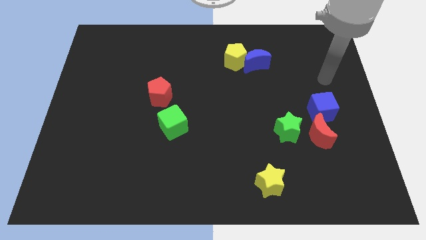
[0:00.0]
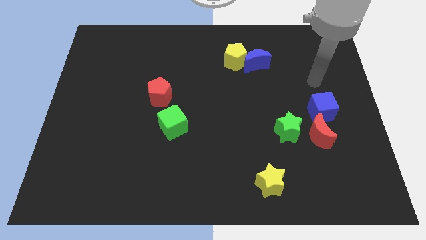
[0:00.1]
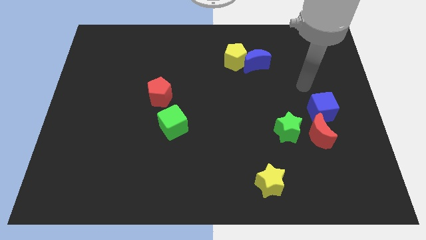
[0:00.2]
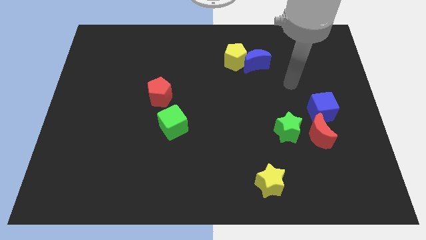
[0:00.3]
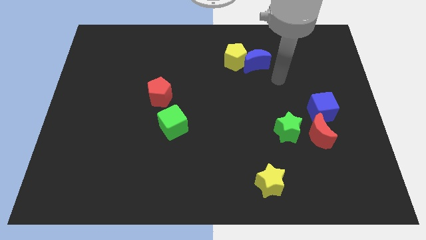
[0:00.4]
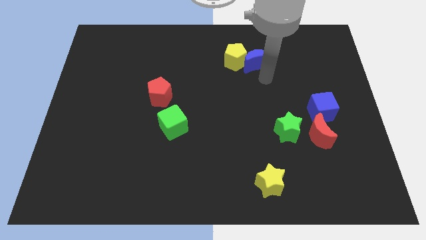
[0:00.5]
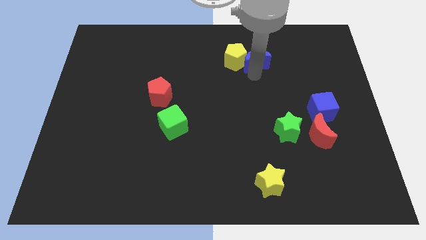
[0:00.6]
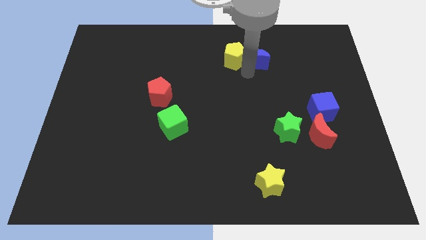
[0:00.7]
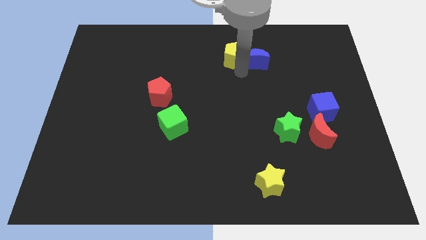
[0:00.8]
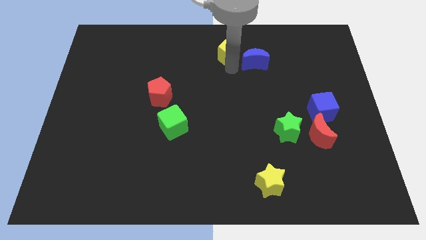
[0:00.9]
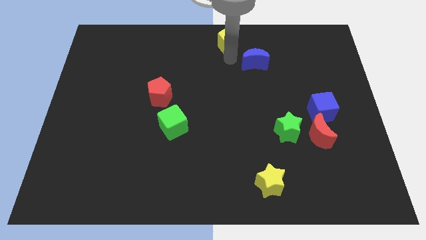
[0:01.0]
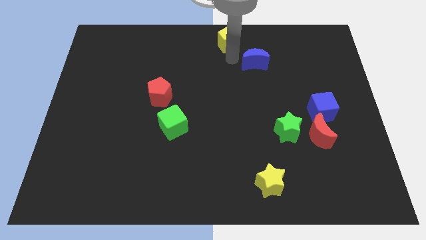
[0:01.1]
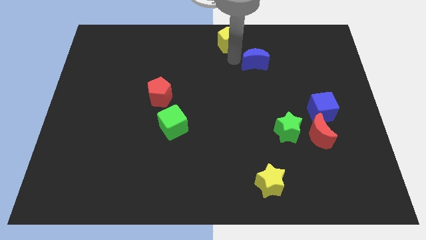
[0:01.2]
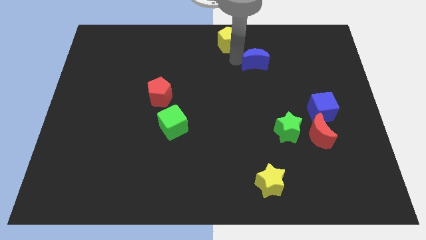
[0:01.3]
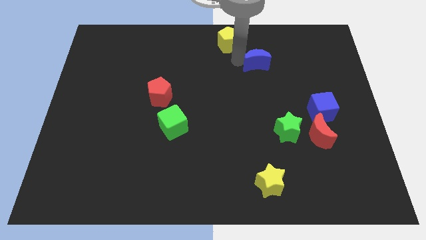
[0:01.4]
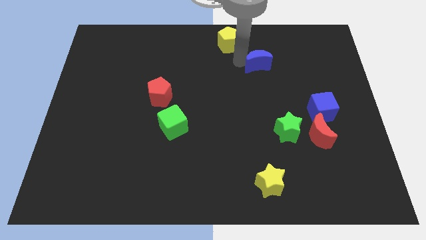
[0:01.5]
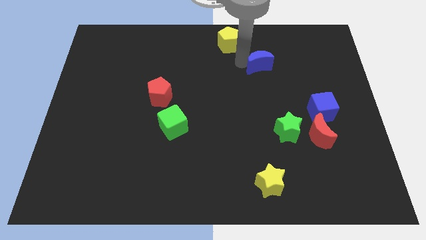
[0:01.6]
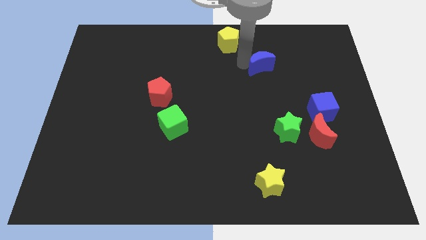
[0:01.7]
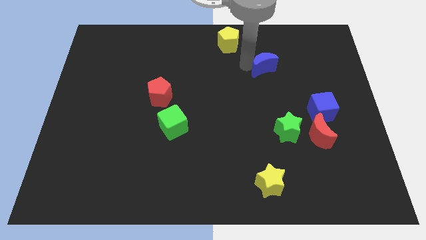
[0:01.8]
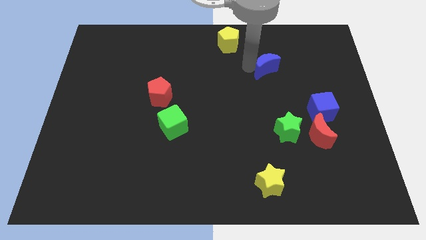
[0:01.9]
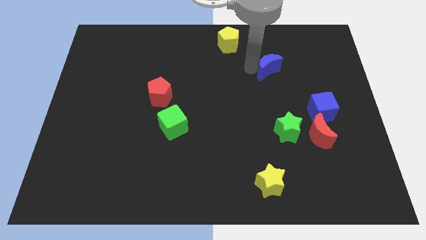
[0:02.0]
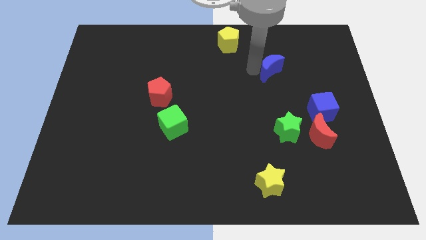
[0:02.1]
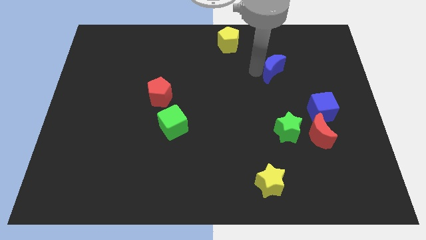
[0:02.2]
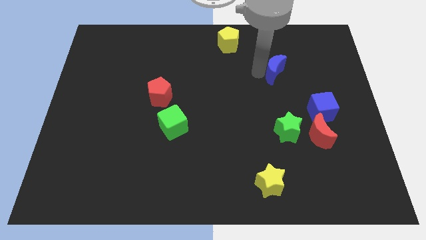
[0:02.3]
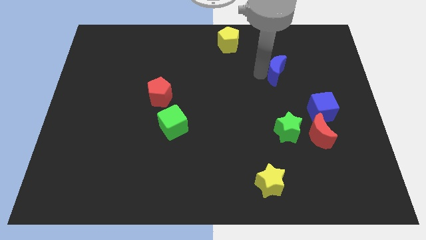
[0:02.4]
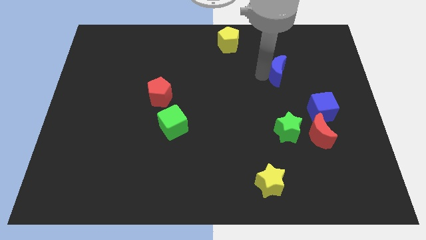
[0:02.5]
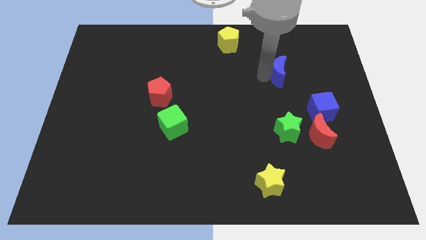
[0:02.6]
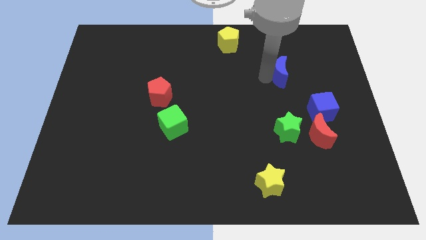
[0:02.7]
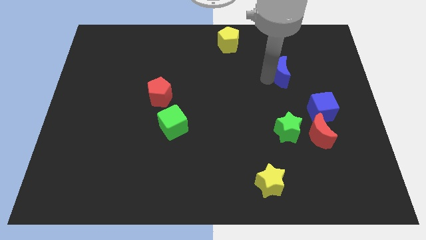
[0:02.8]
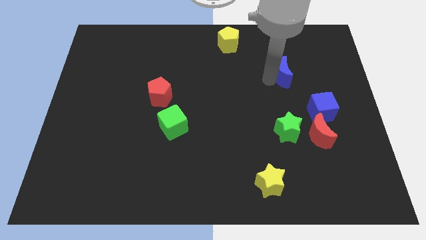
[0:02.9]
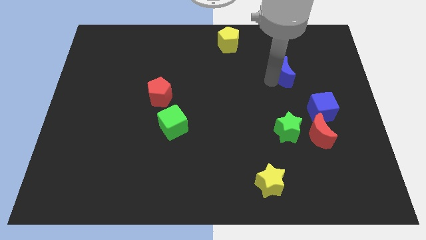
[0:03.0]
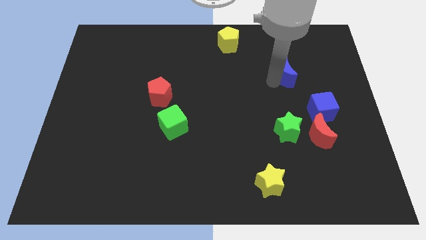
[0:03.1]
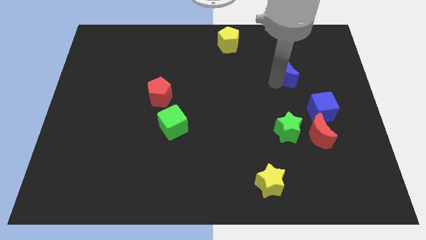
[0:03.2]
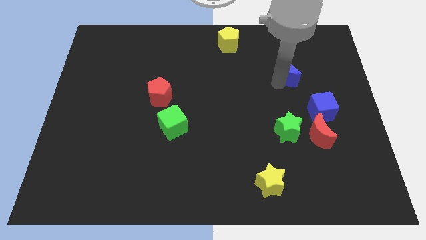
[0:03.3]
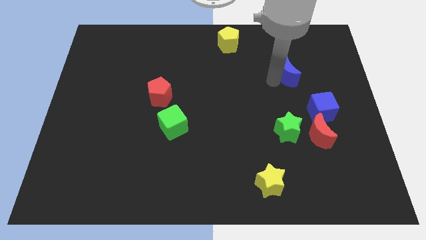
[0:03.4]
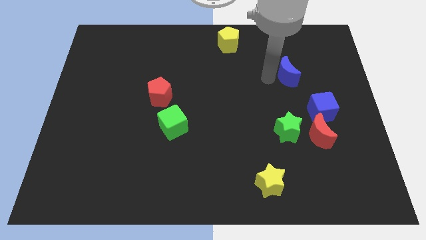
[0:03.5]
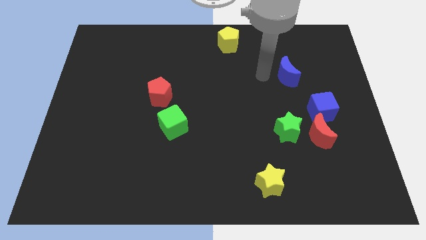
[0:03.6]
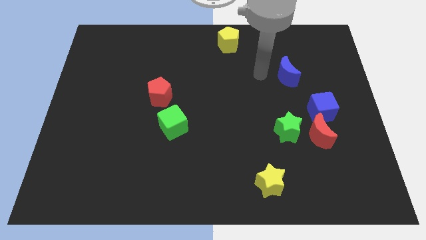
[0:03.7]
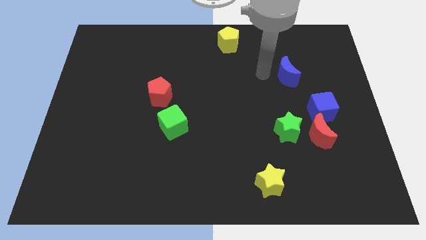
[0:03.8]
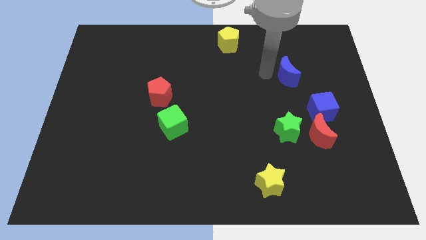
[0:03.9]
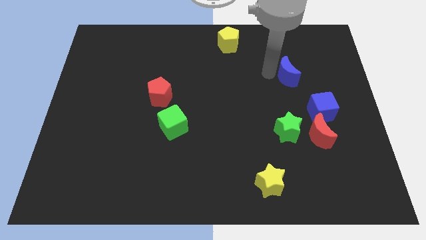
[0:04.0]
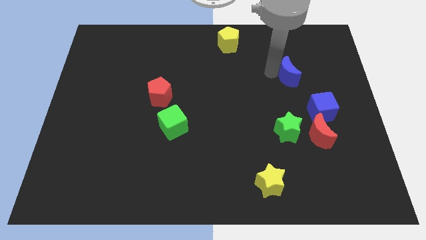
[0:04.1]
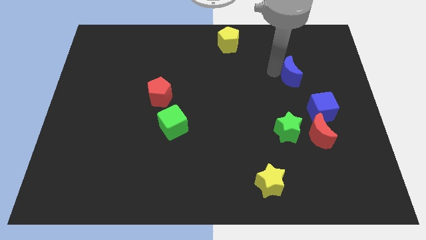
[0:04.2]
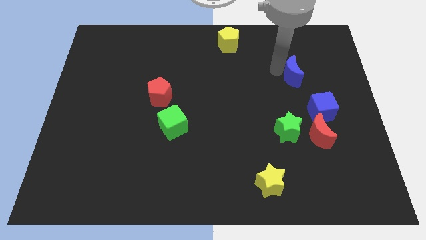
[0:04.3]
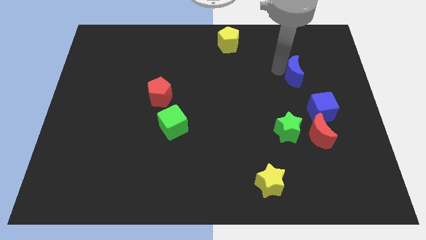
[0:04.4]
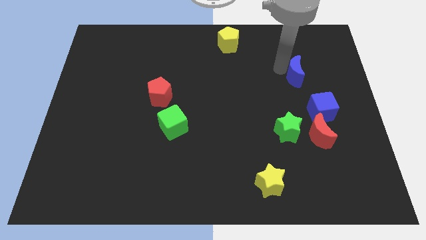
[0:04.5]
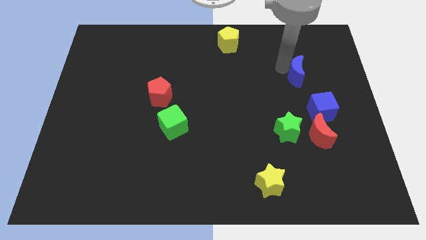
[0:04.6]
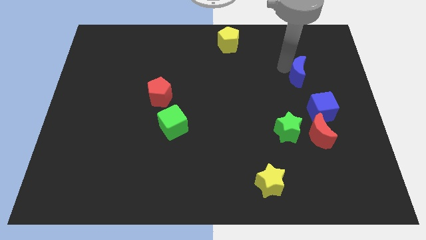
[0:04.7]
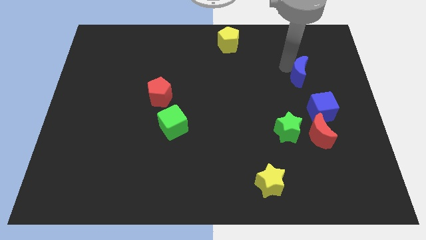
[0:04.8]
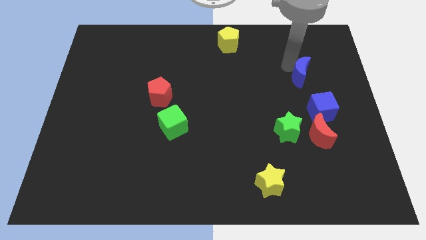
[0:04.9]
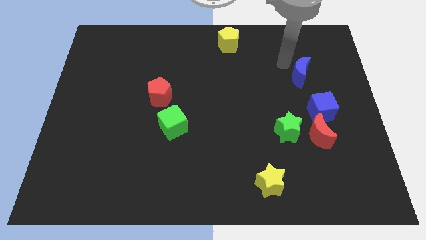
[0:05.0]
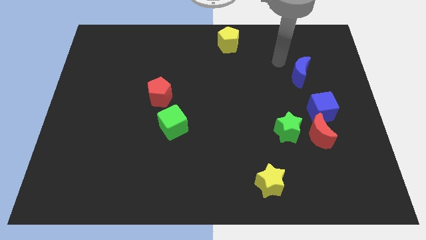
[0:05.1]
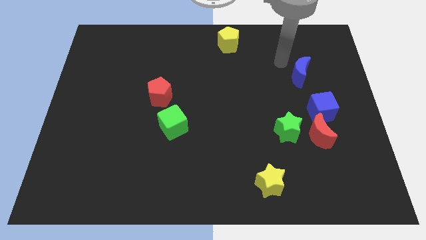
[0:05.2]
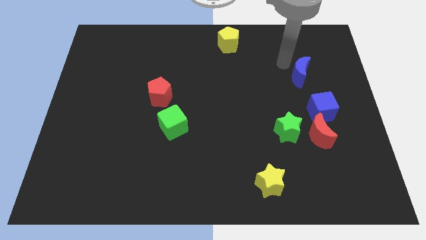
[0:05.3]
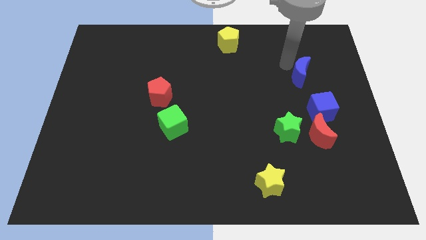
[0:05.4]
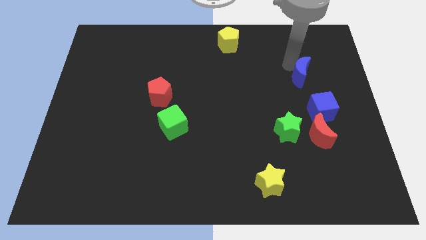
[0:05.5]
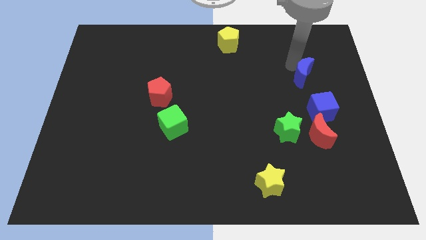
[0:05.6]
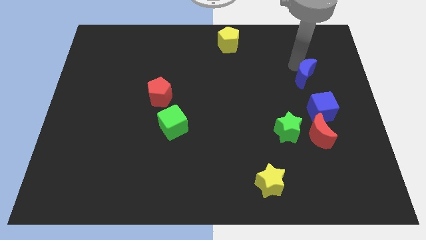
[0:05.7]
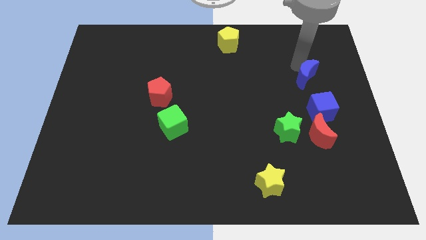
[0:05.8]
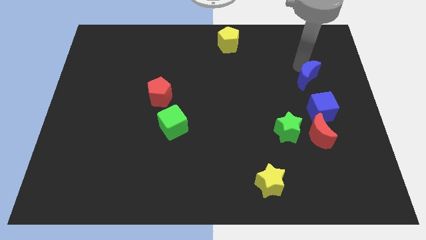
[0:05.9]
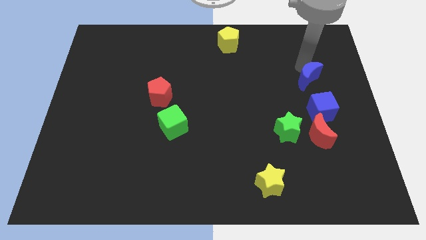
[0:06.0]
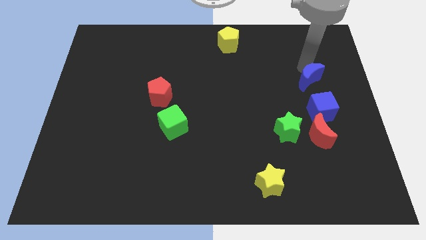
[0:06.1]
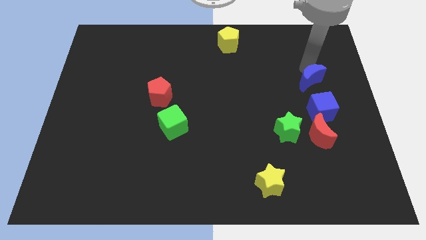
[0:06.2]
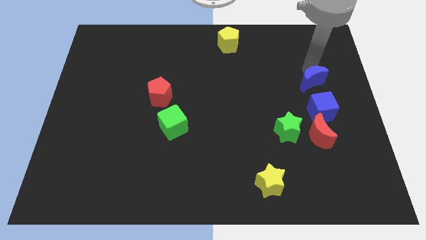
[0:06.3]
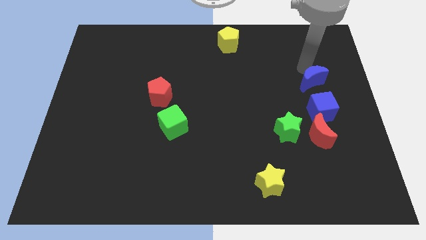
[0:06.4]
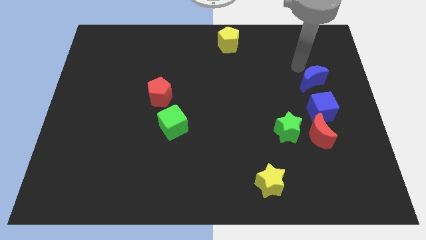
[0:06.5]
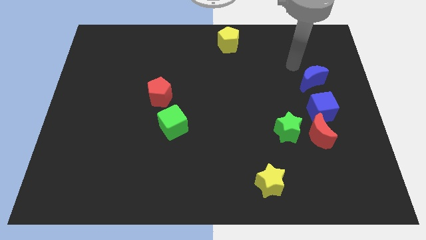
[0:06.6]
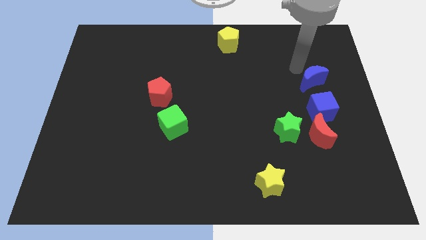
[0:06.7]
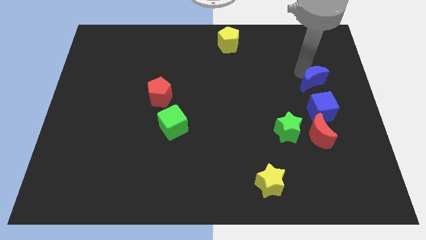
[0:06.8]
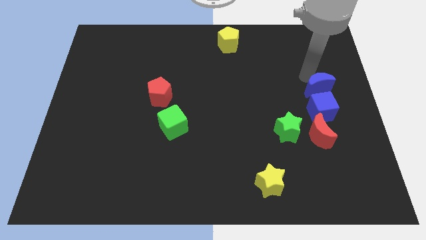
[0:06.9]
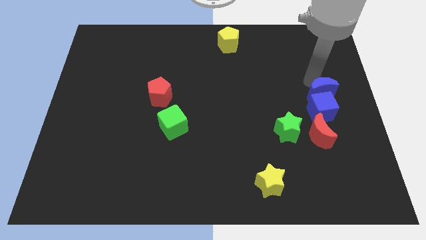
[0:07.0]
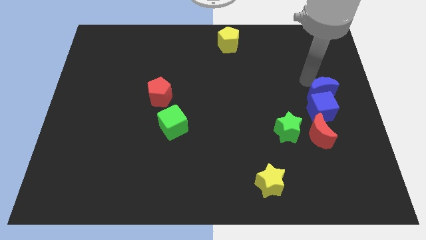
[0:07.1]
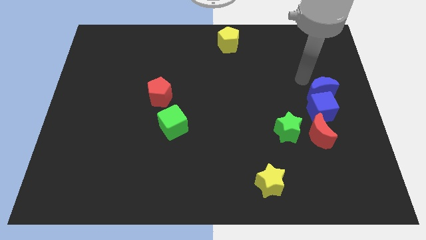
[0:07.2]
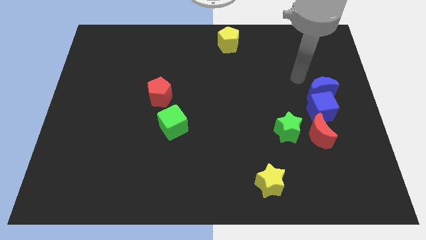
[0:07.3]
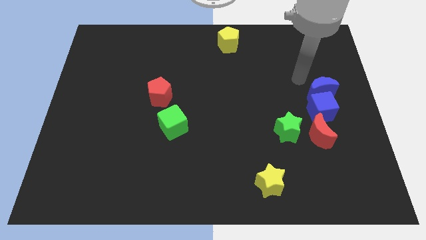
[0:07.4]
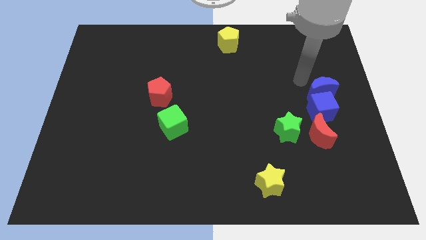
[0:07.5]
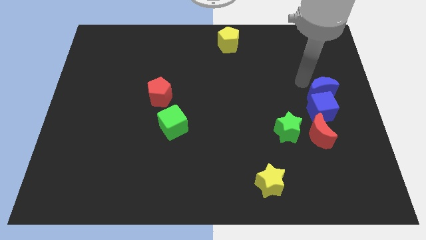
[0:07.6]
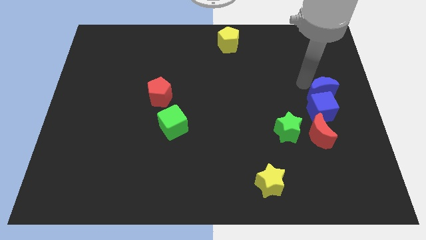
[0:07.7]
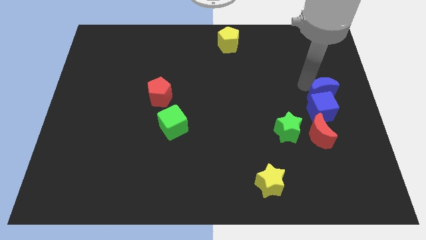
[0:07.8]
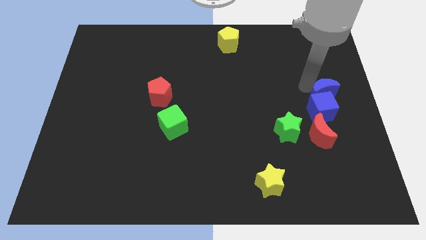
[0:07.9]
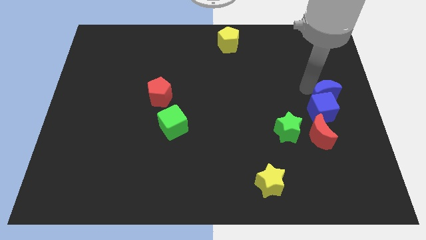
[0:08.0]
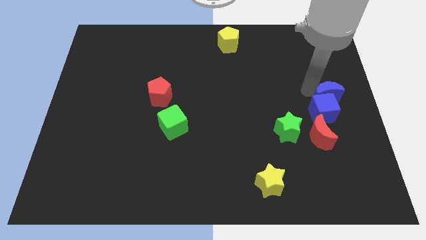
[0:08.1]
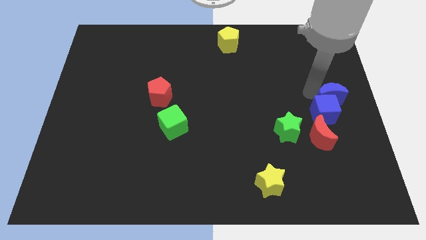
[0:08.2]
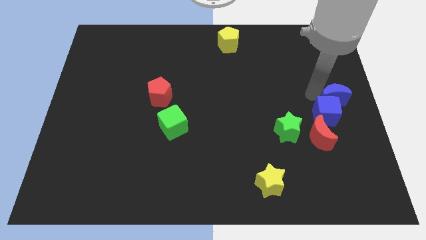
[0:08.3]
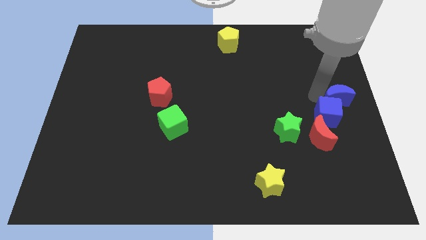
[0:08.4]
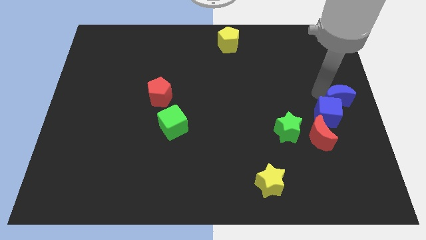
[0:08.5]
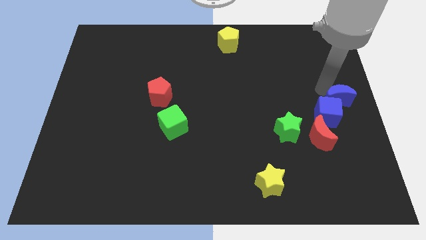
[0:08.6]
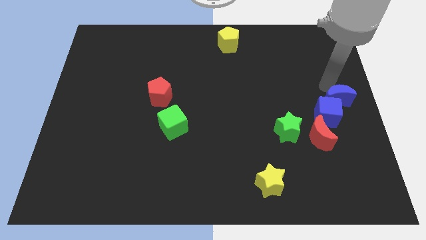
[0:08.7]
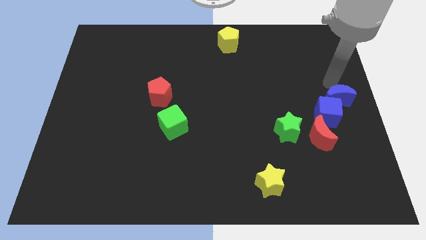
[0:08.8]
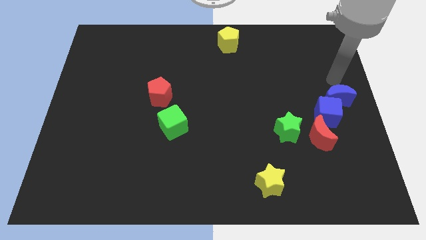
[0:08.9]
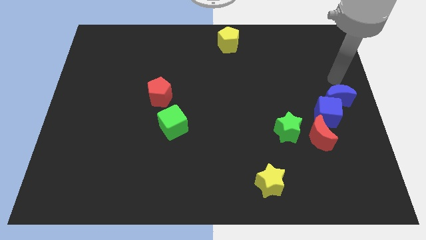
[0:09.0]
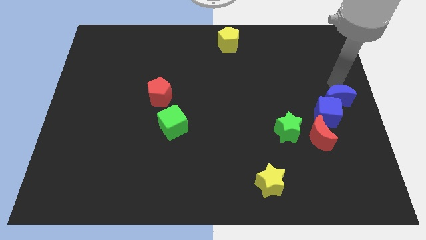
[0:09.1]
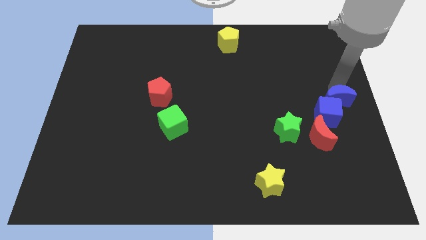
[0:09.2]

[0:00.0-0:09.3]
move the blue moon diagonally up and to the right of the red moon
